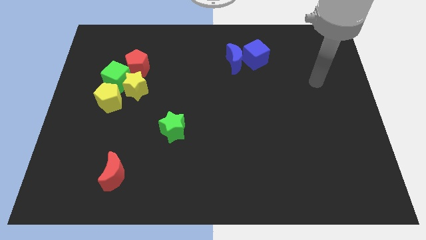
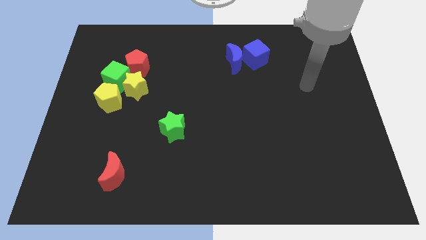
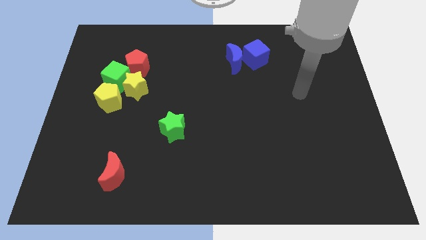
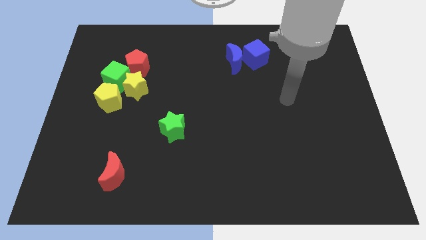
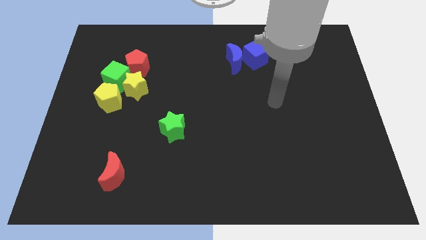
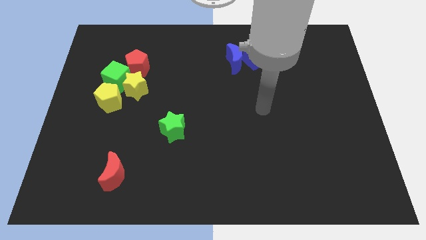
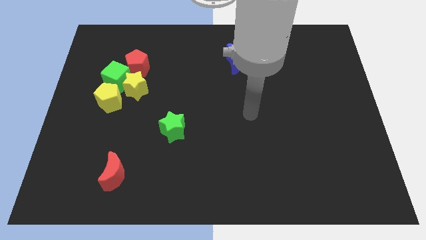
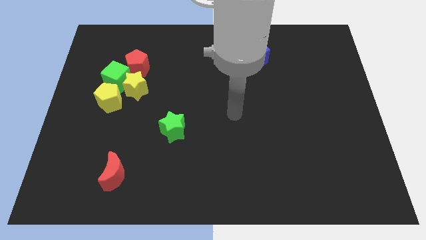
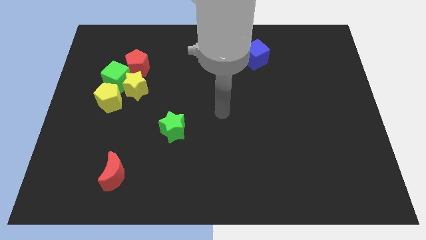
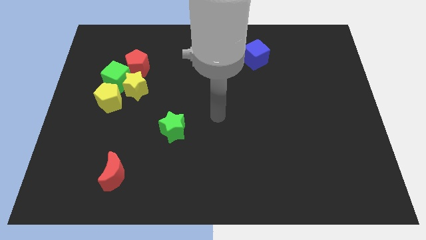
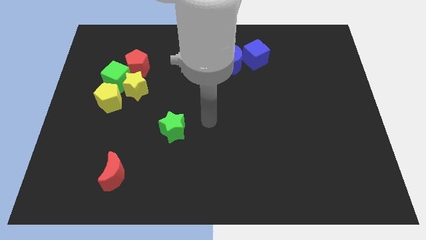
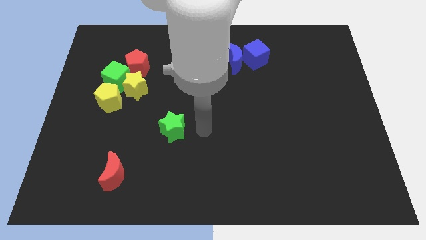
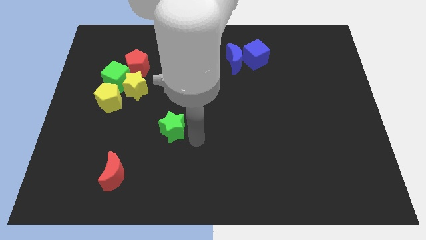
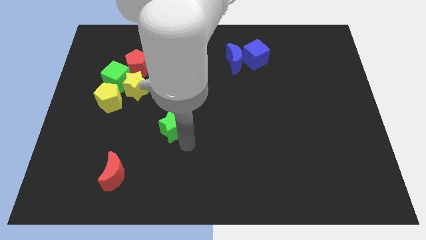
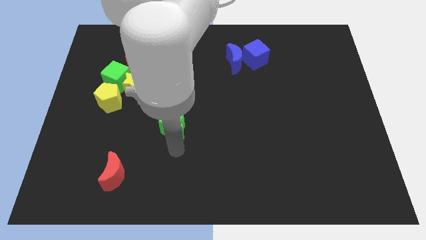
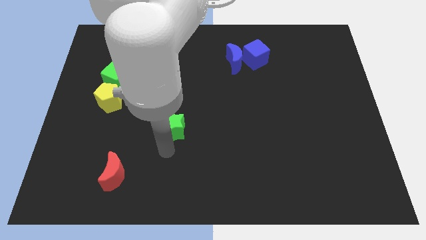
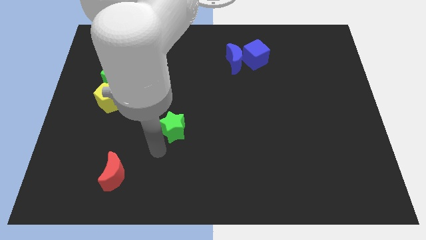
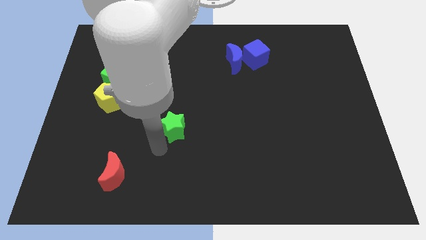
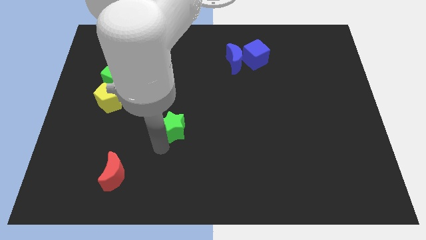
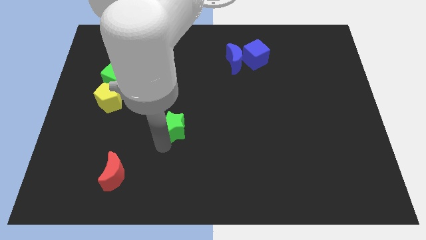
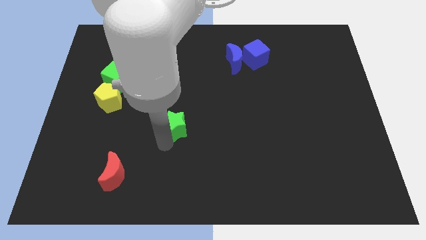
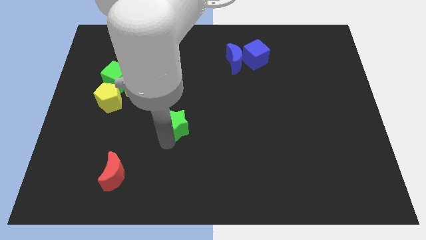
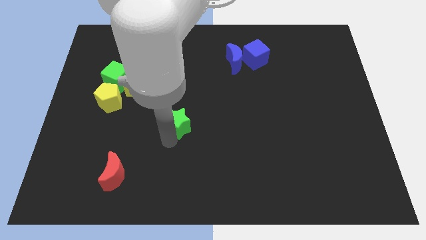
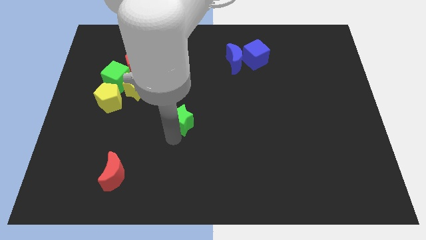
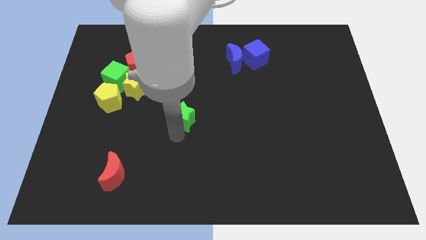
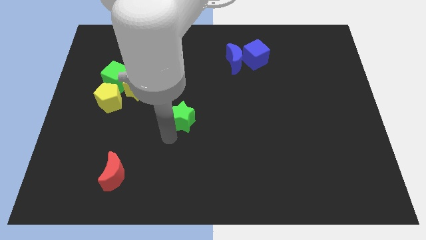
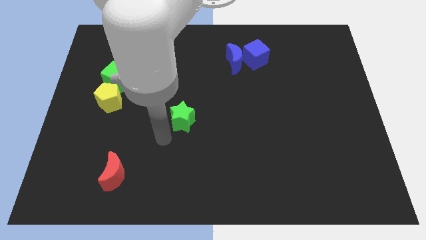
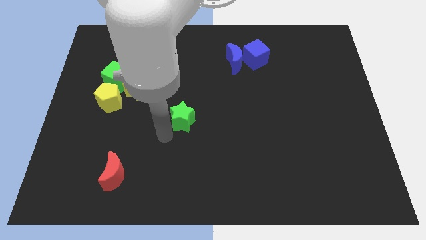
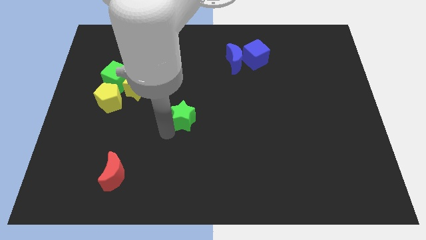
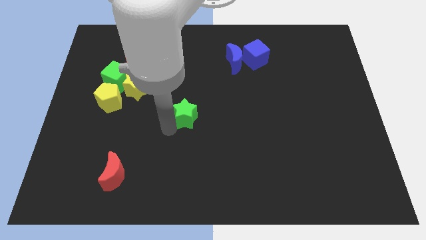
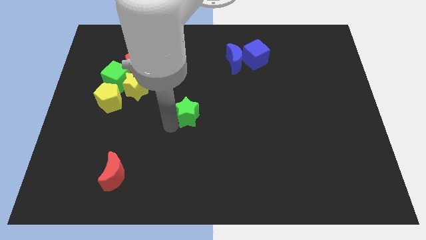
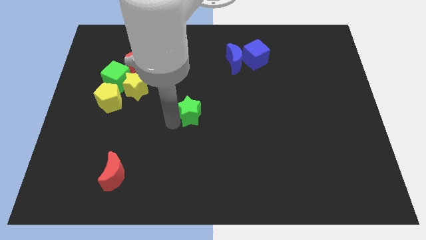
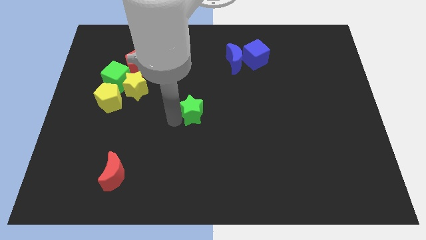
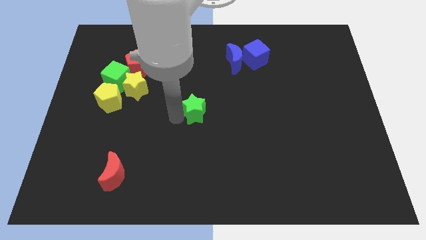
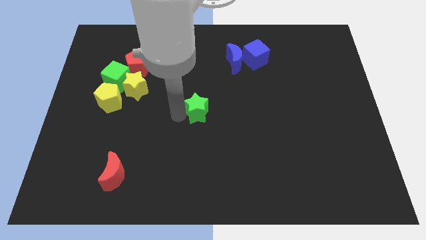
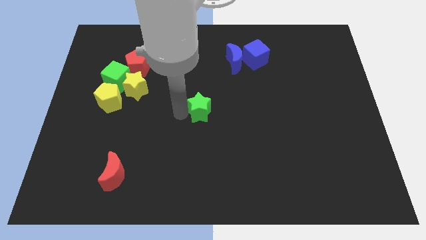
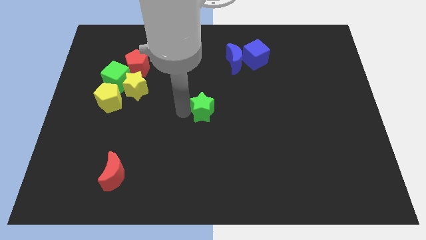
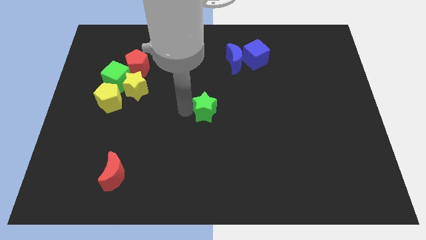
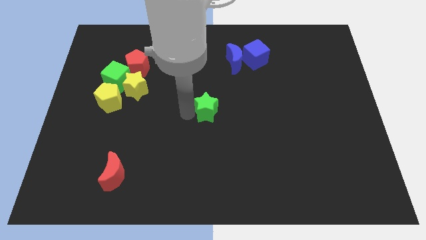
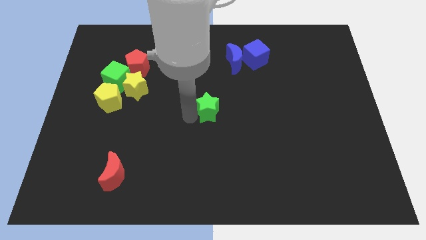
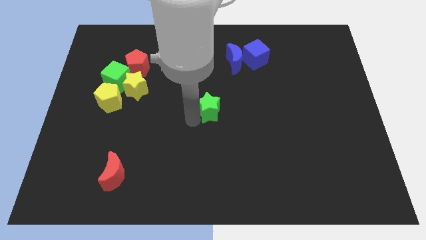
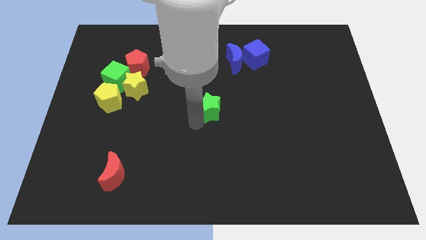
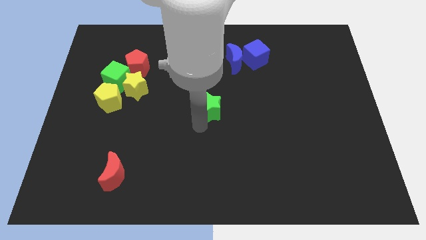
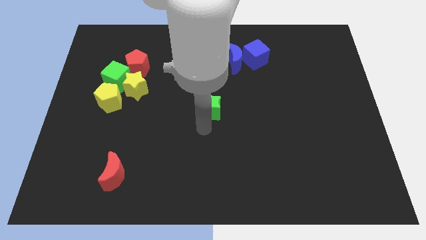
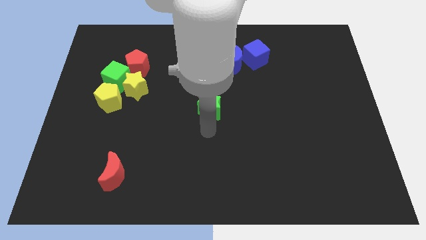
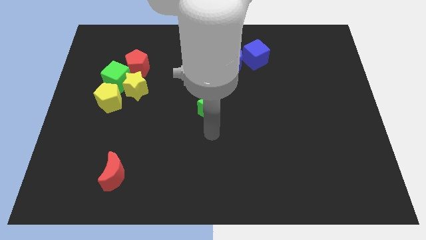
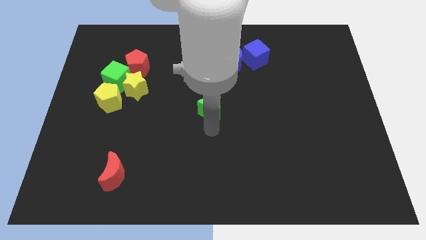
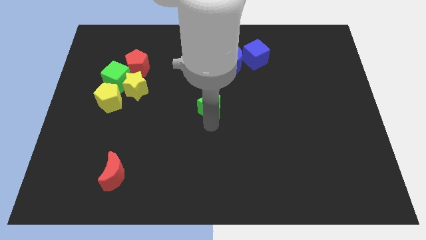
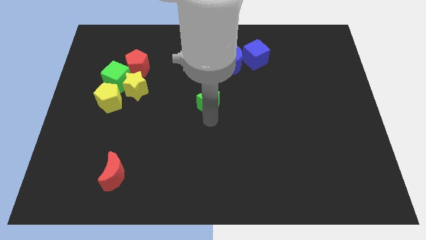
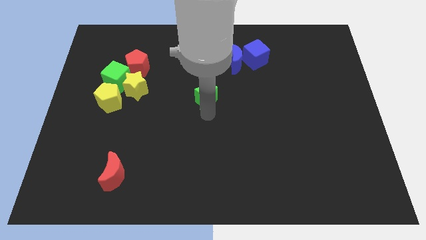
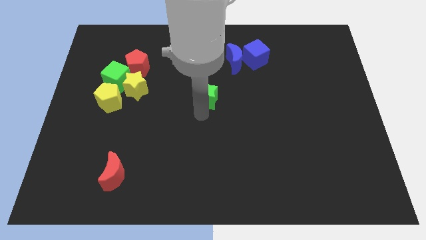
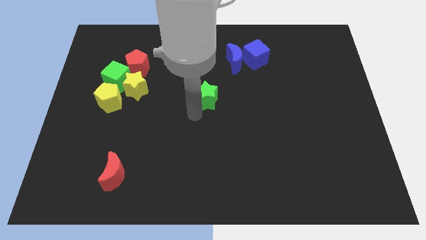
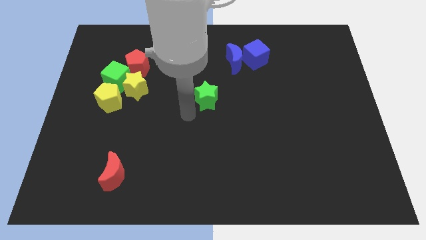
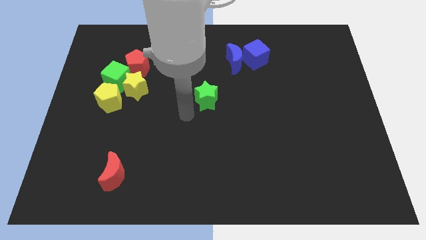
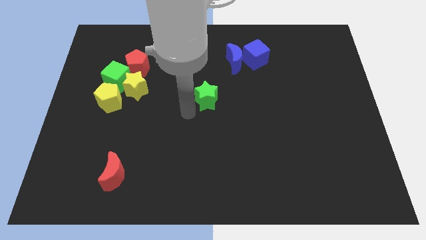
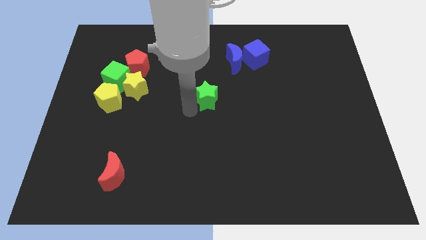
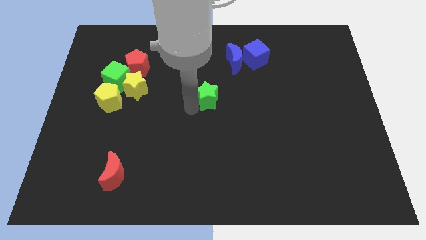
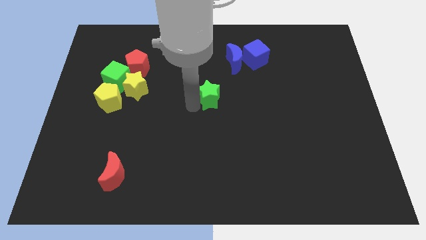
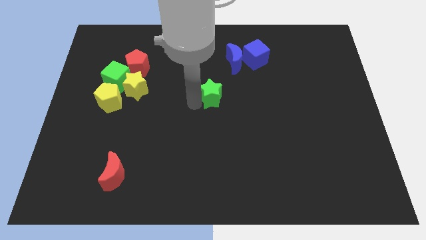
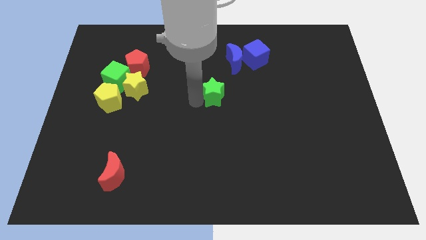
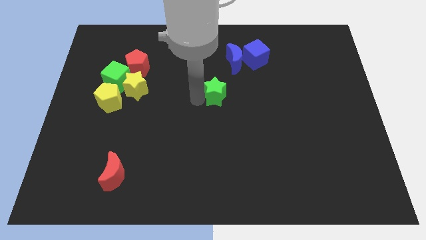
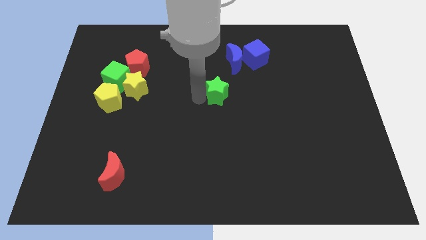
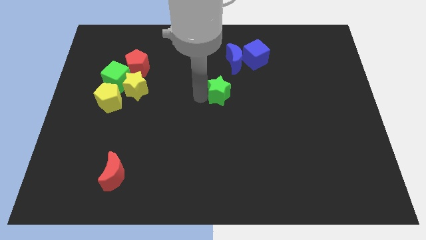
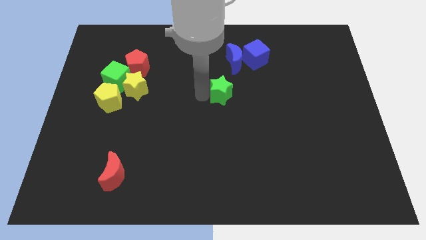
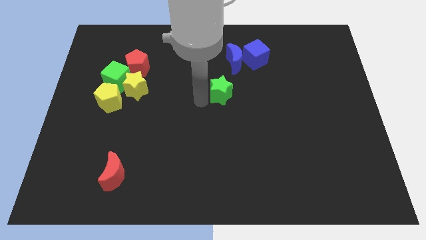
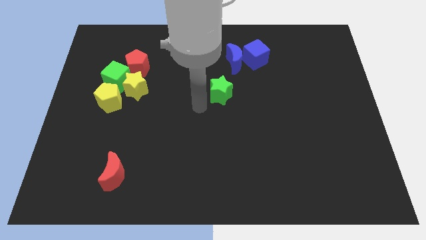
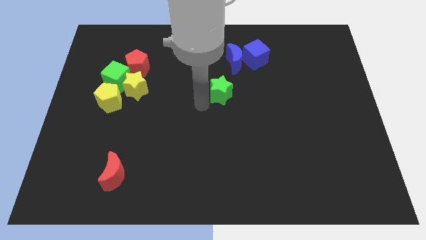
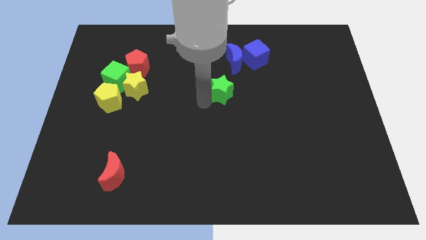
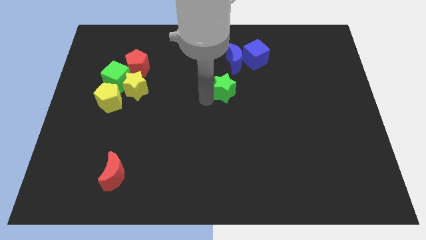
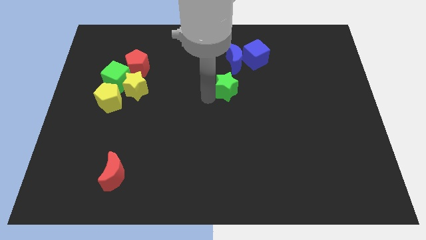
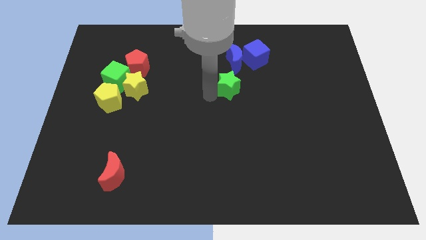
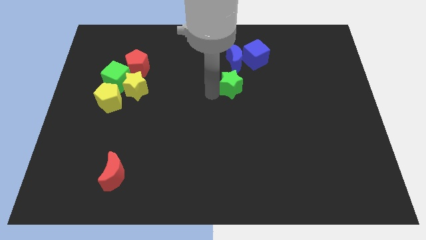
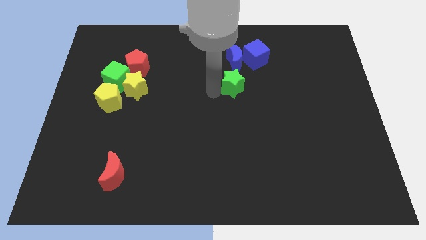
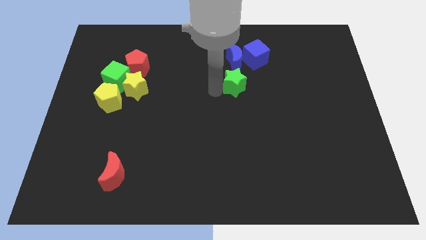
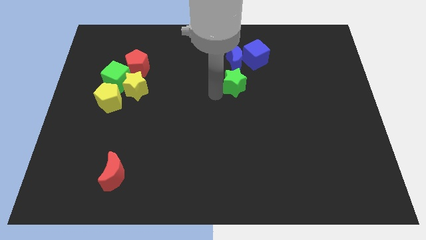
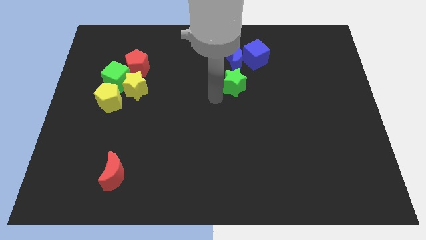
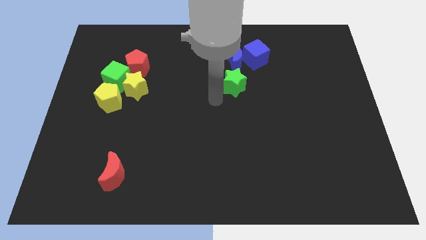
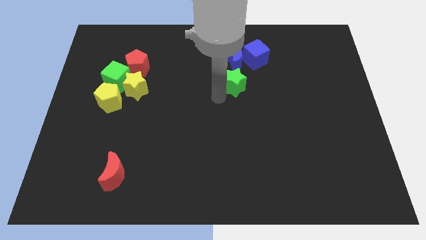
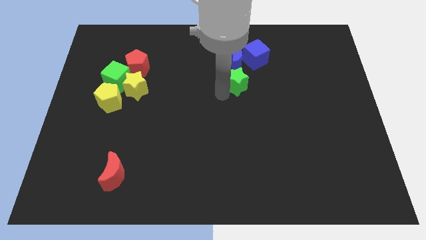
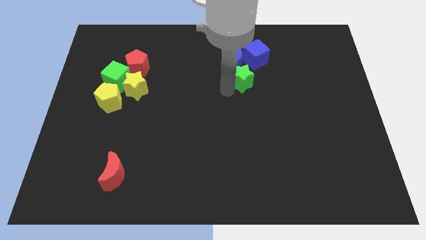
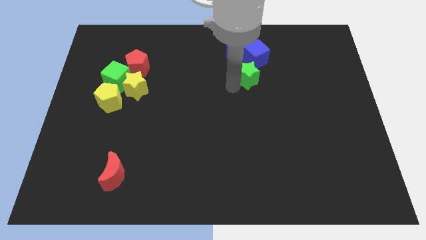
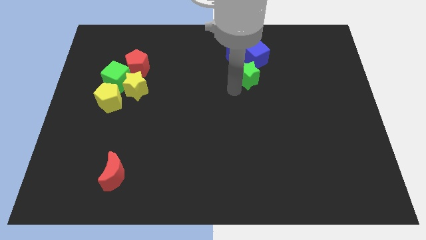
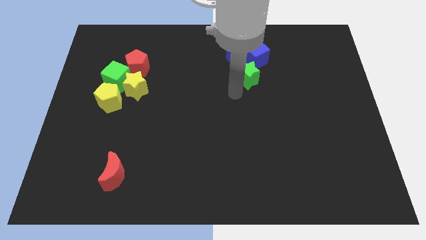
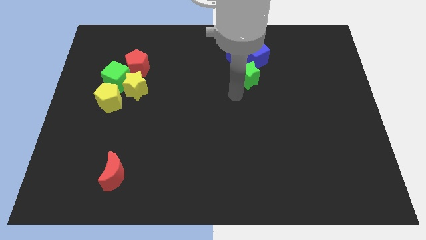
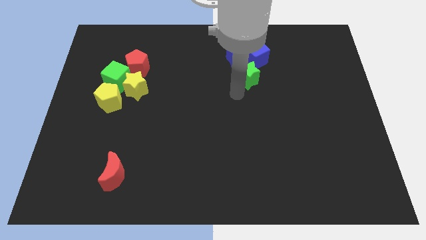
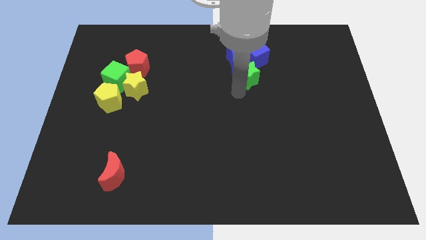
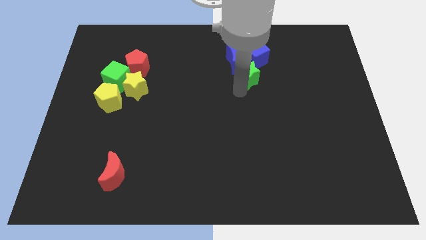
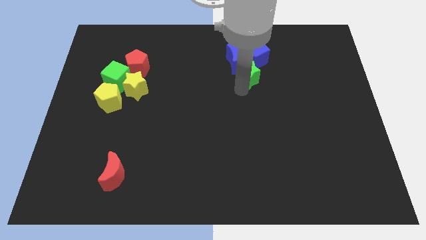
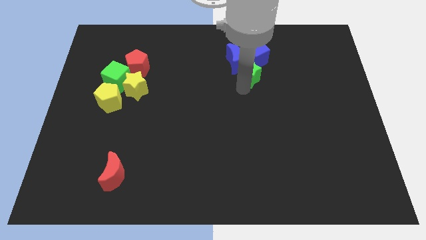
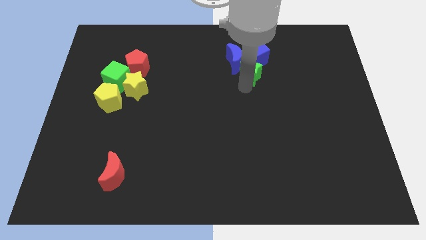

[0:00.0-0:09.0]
push the green star close to the blue cube
